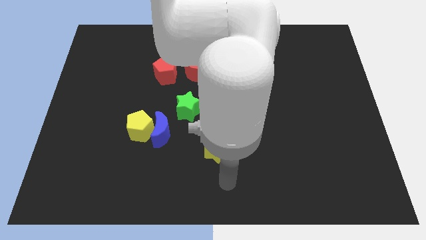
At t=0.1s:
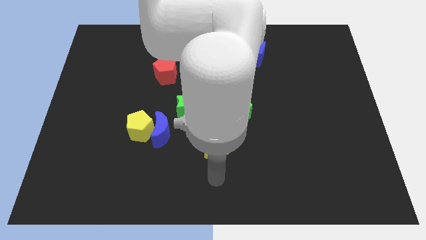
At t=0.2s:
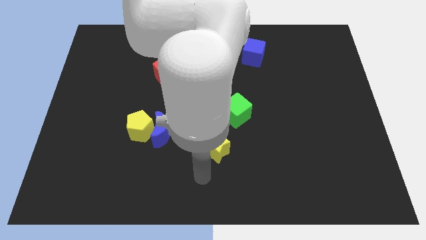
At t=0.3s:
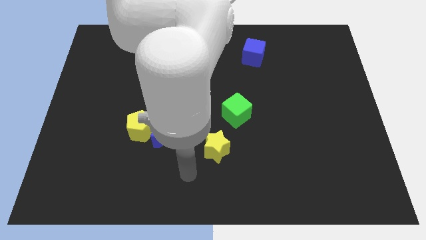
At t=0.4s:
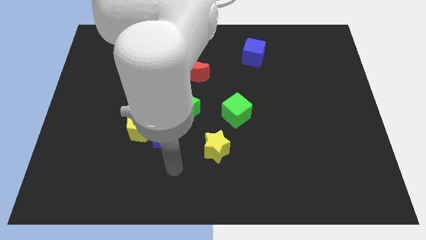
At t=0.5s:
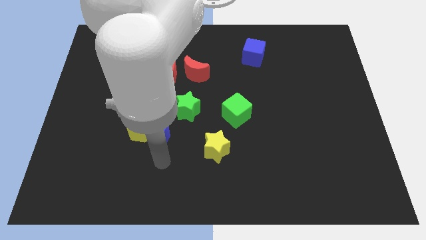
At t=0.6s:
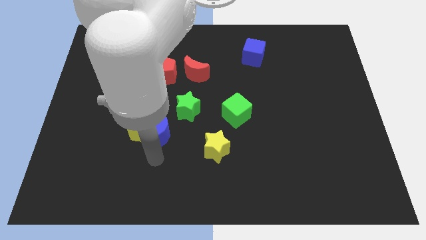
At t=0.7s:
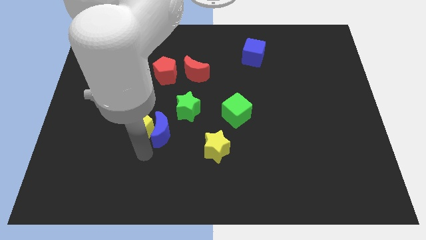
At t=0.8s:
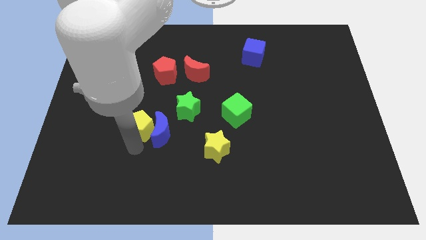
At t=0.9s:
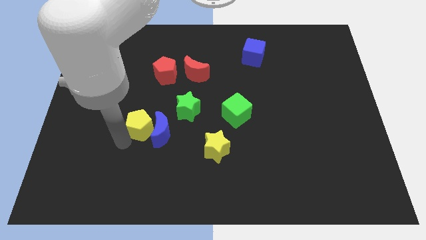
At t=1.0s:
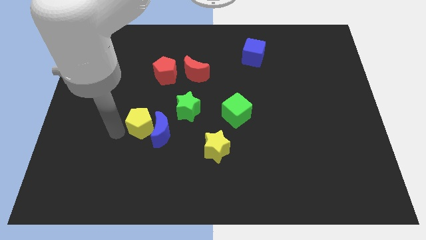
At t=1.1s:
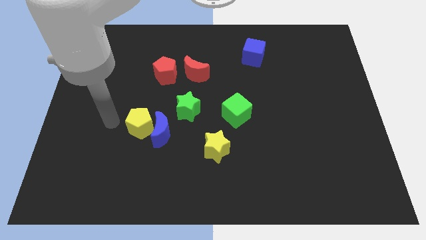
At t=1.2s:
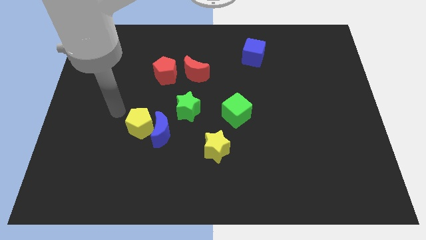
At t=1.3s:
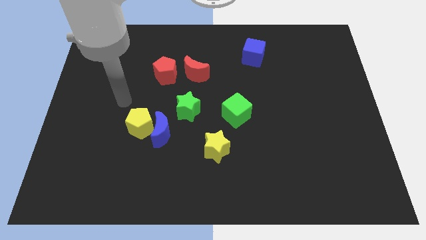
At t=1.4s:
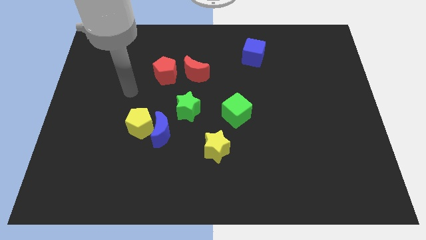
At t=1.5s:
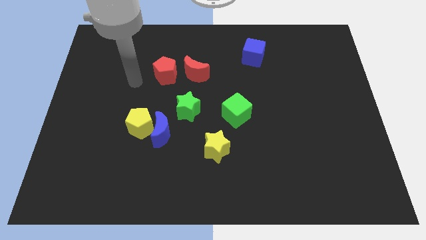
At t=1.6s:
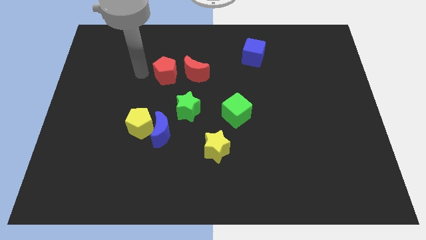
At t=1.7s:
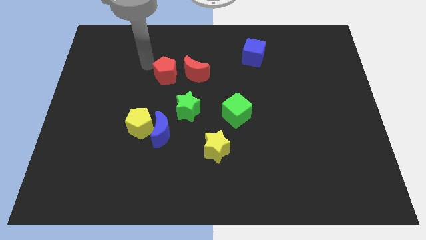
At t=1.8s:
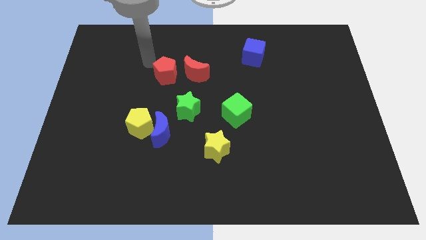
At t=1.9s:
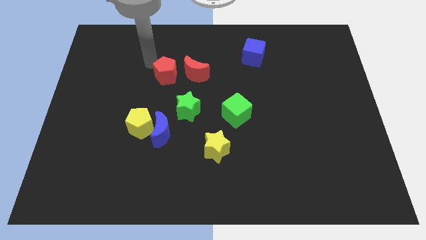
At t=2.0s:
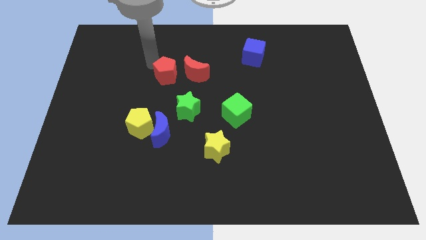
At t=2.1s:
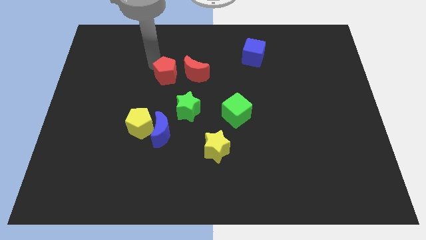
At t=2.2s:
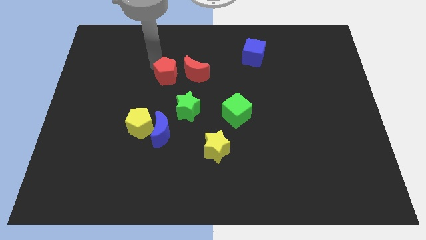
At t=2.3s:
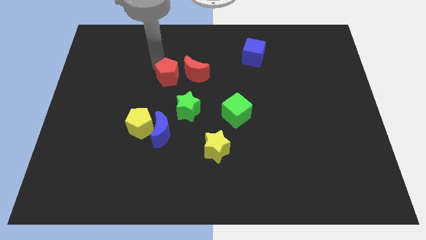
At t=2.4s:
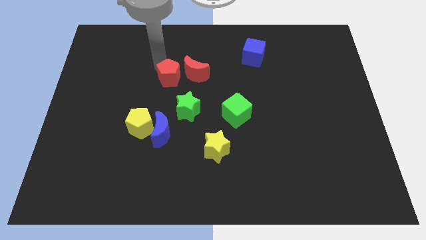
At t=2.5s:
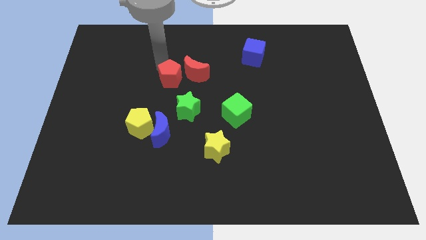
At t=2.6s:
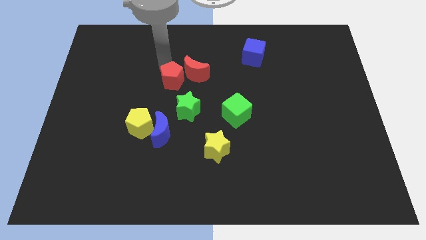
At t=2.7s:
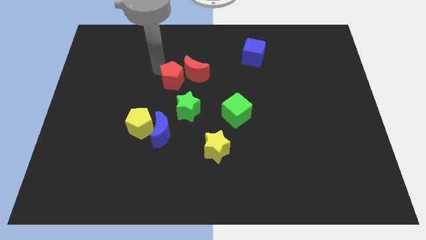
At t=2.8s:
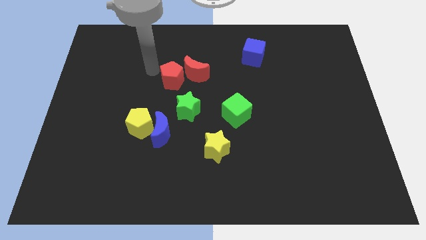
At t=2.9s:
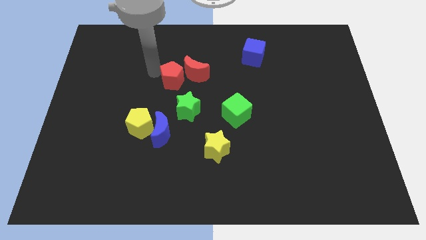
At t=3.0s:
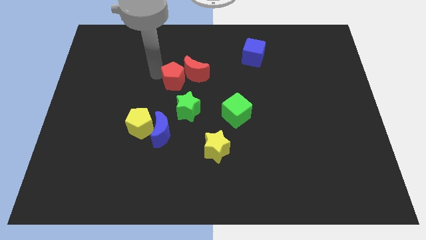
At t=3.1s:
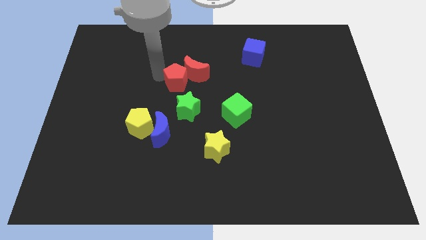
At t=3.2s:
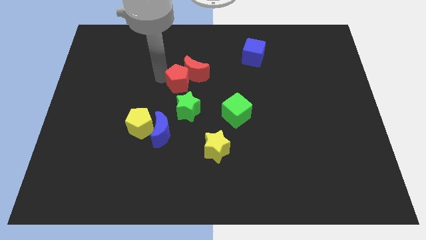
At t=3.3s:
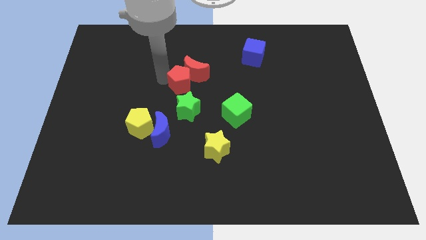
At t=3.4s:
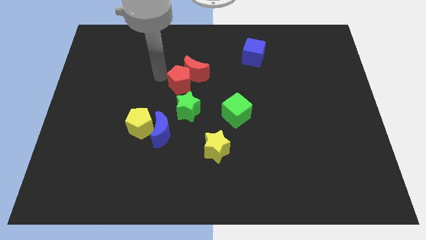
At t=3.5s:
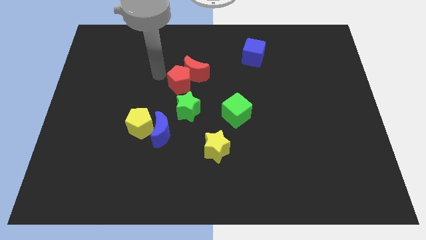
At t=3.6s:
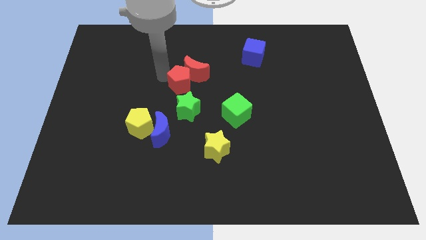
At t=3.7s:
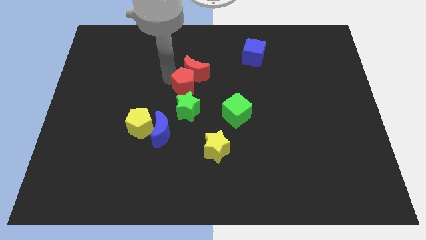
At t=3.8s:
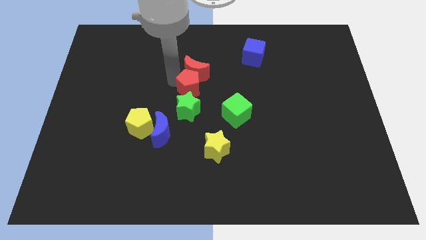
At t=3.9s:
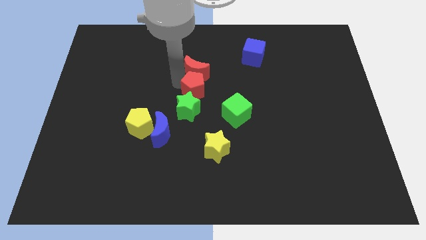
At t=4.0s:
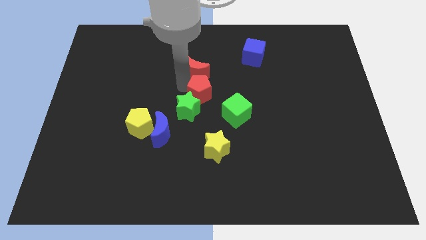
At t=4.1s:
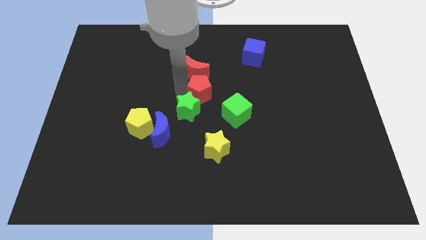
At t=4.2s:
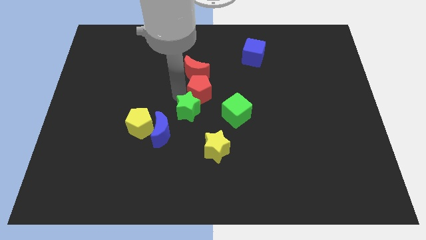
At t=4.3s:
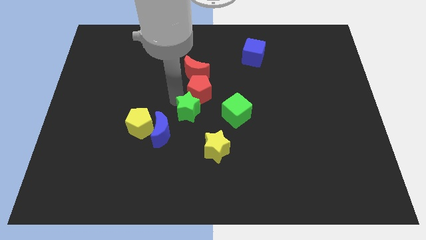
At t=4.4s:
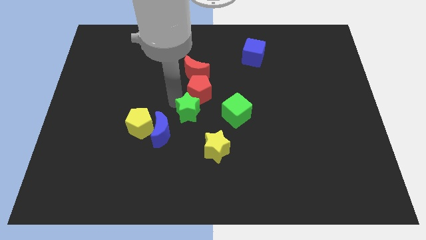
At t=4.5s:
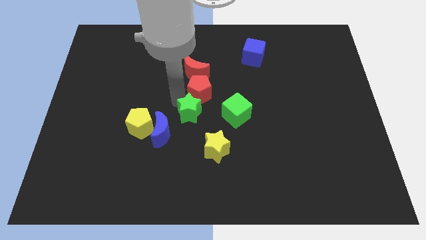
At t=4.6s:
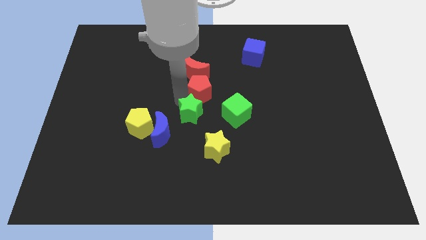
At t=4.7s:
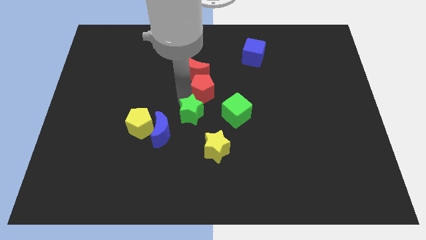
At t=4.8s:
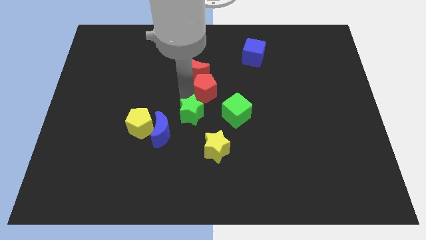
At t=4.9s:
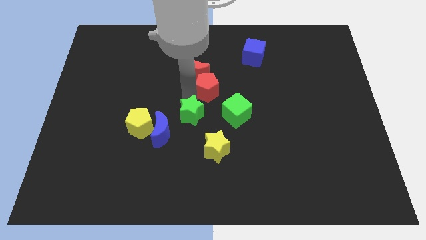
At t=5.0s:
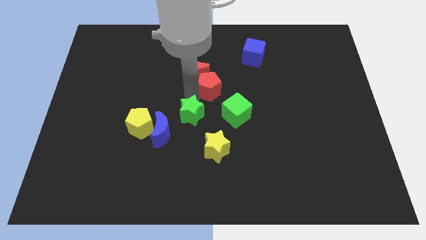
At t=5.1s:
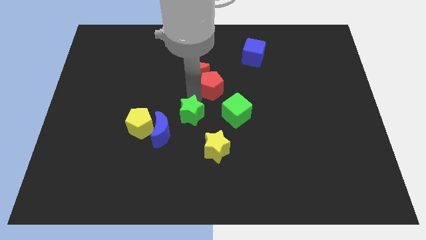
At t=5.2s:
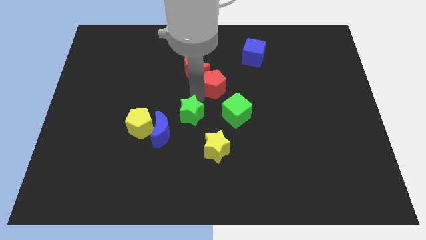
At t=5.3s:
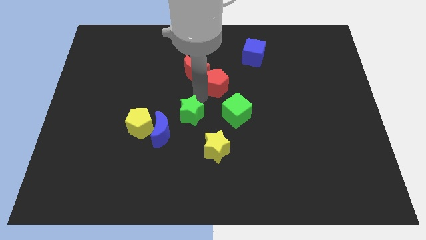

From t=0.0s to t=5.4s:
push the red pentagon above the green cube

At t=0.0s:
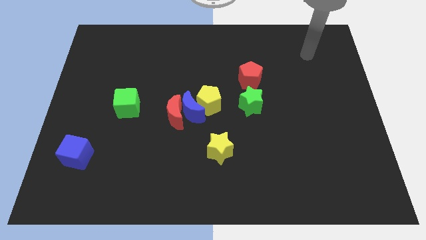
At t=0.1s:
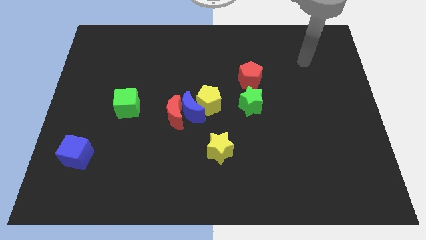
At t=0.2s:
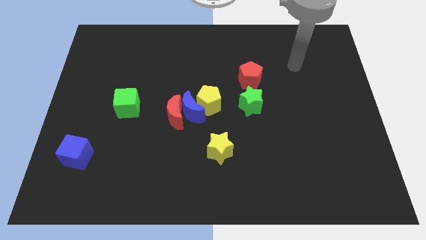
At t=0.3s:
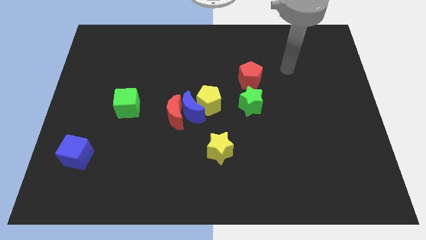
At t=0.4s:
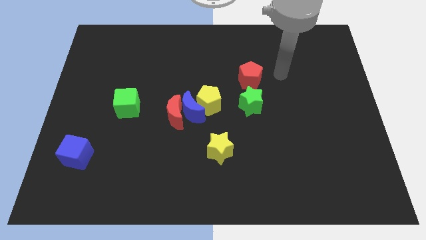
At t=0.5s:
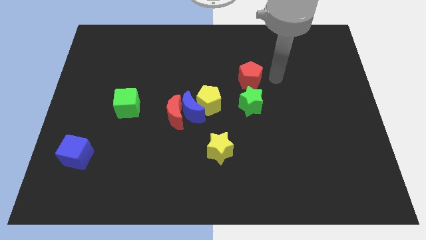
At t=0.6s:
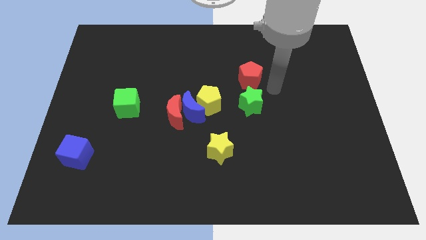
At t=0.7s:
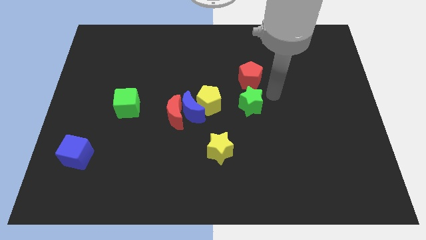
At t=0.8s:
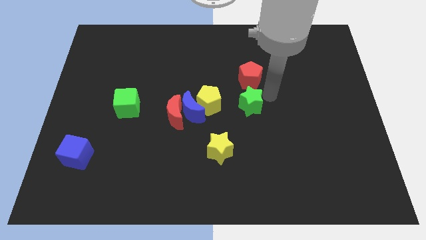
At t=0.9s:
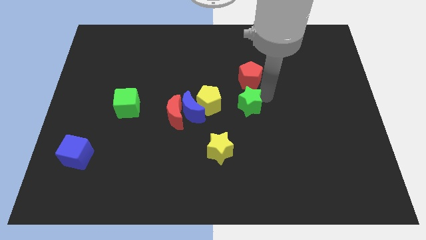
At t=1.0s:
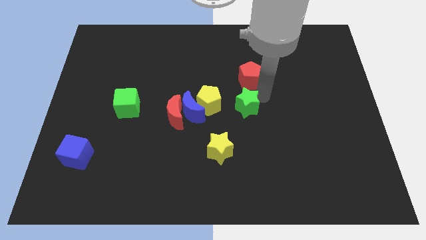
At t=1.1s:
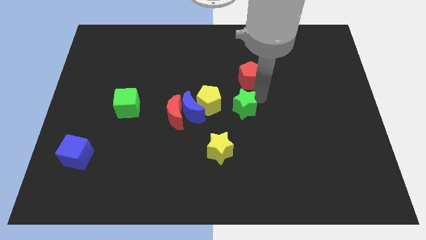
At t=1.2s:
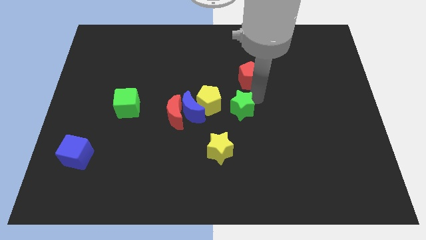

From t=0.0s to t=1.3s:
move the green star to the right of the red moon
